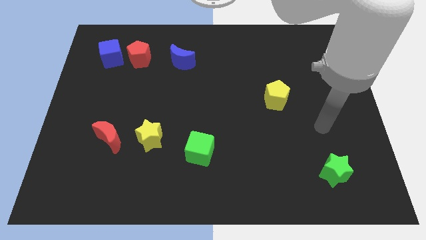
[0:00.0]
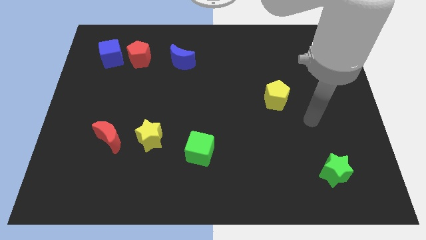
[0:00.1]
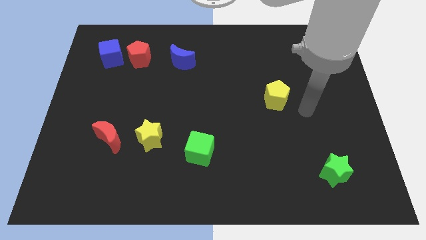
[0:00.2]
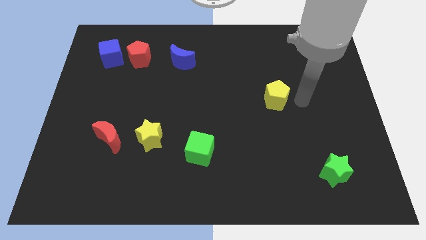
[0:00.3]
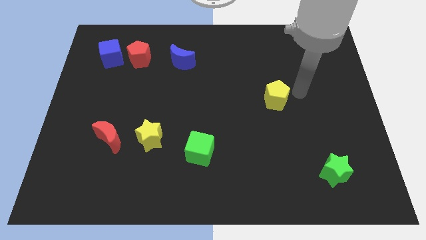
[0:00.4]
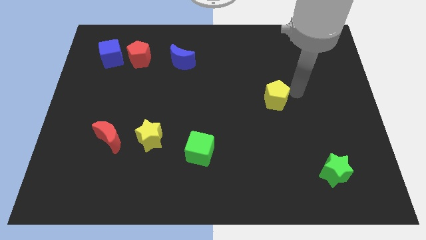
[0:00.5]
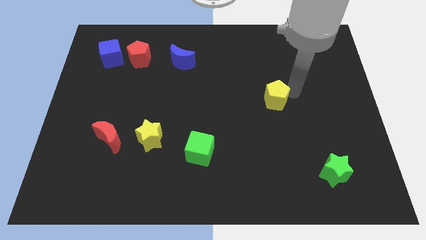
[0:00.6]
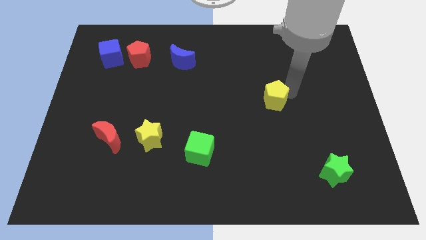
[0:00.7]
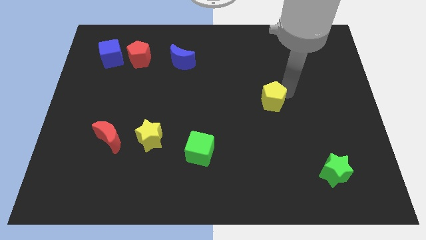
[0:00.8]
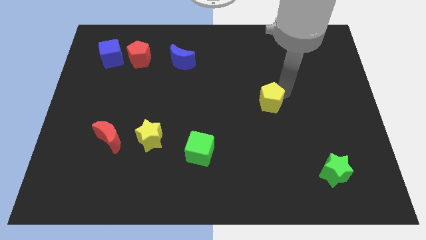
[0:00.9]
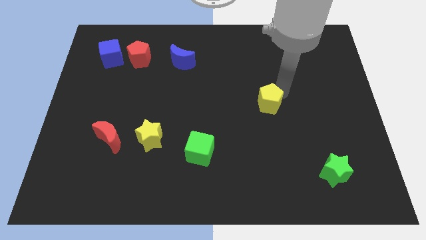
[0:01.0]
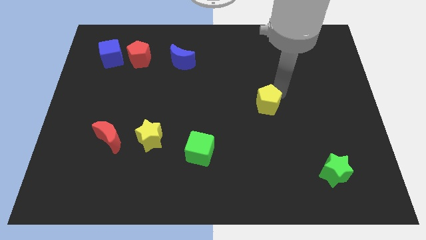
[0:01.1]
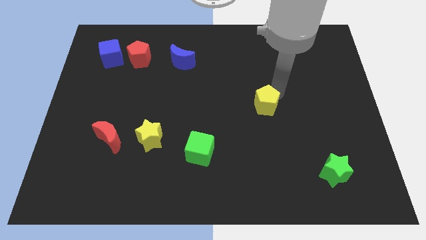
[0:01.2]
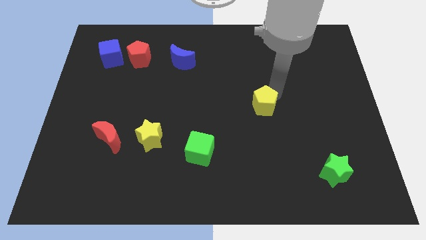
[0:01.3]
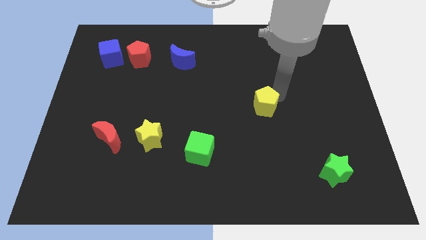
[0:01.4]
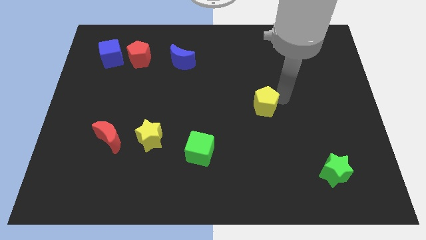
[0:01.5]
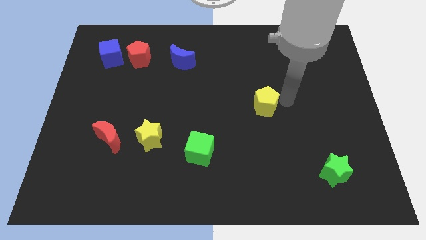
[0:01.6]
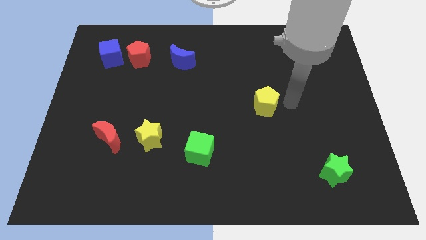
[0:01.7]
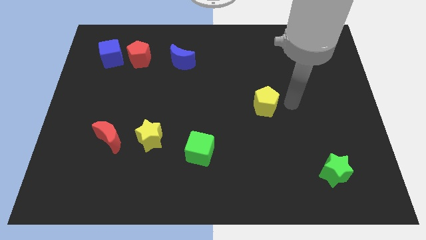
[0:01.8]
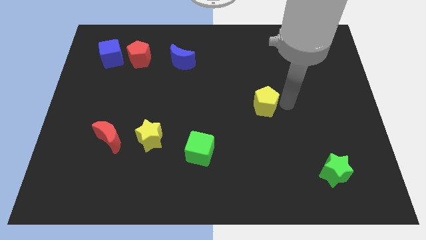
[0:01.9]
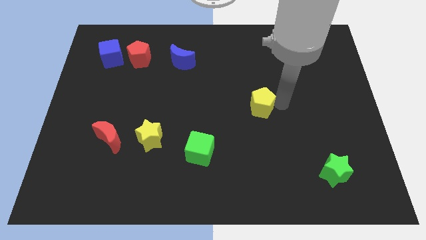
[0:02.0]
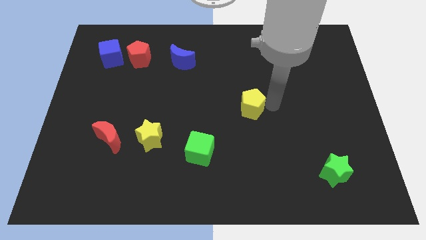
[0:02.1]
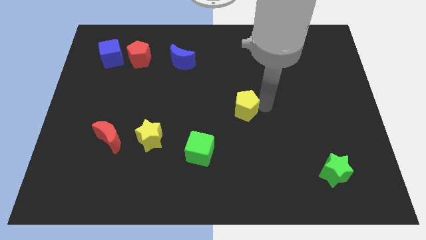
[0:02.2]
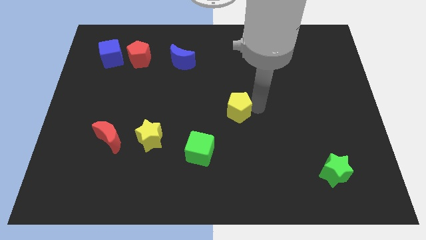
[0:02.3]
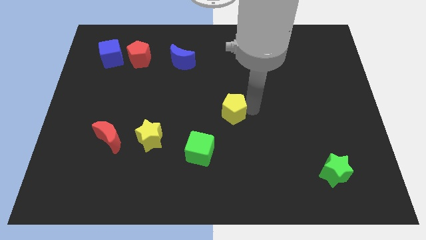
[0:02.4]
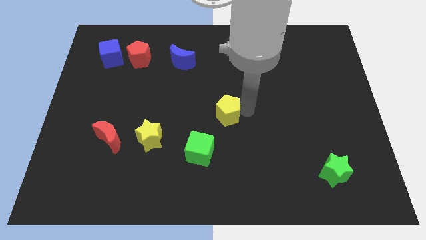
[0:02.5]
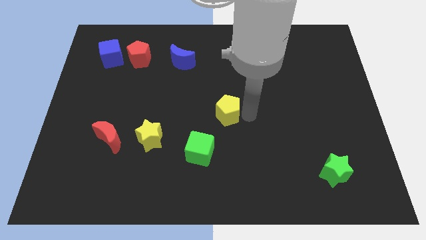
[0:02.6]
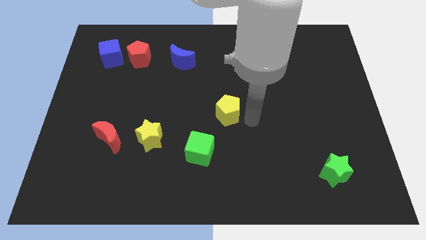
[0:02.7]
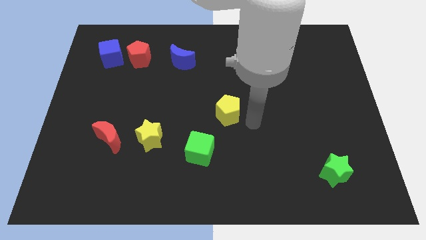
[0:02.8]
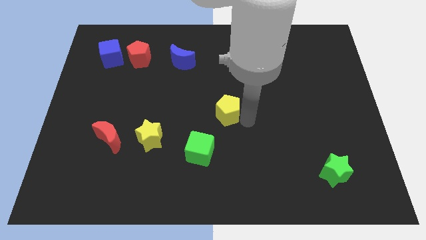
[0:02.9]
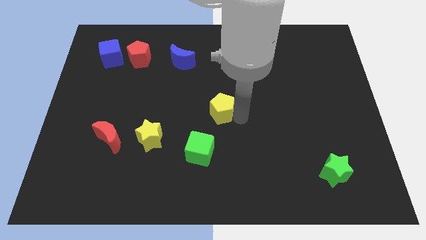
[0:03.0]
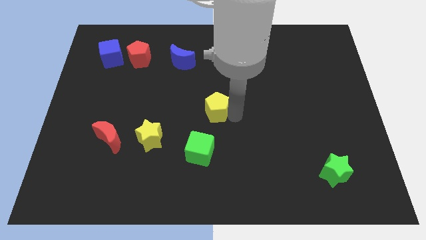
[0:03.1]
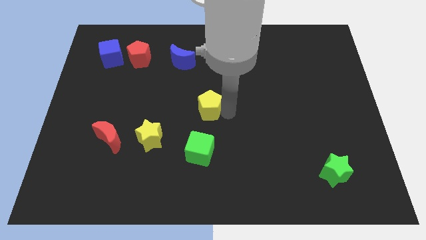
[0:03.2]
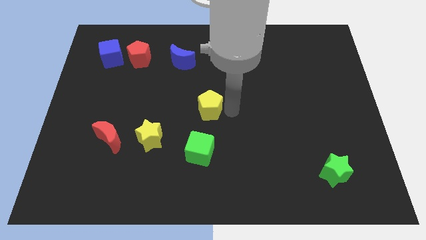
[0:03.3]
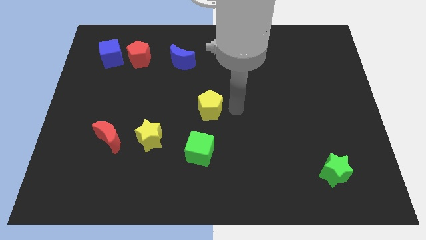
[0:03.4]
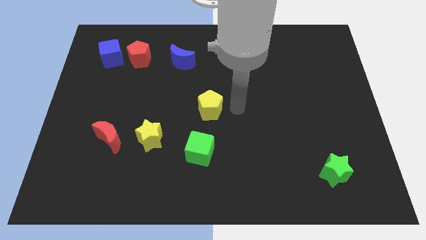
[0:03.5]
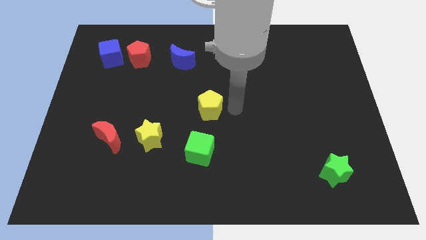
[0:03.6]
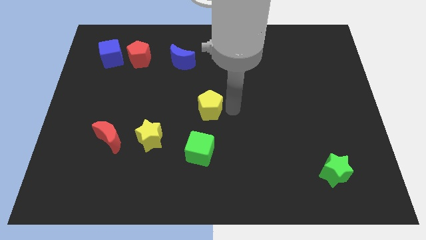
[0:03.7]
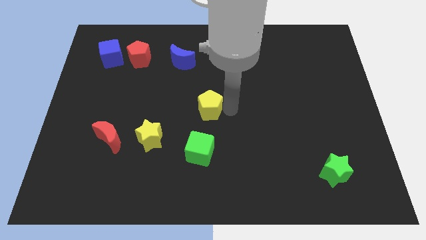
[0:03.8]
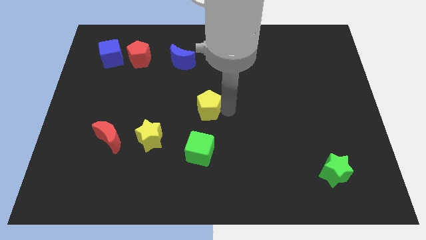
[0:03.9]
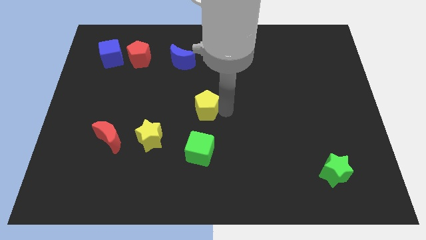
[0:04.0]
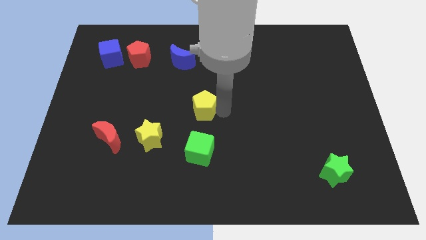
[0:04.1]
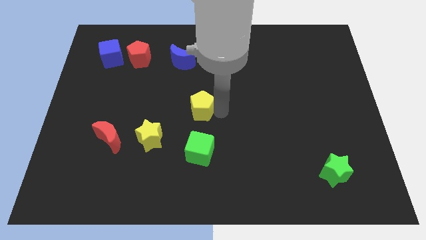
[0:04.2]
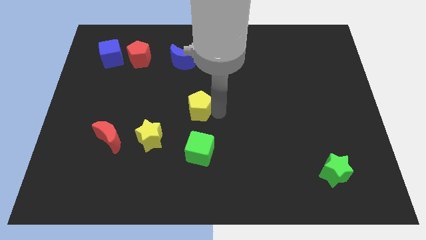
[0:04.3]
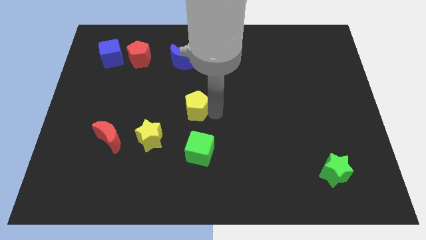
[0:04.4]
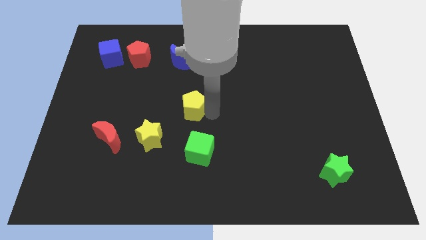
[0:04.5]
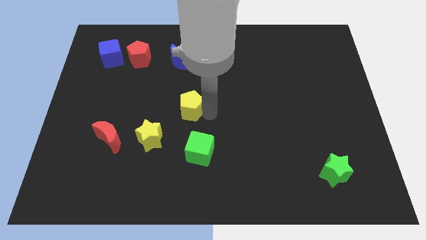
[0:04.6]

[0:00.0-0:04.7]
push the yellow pentagon left

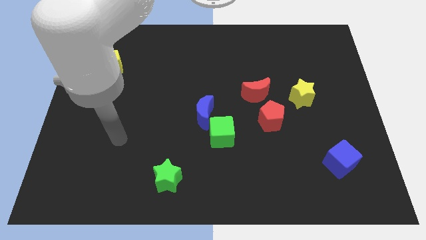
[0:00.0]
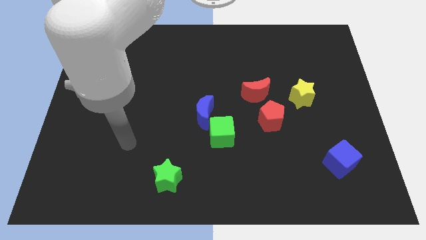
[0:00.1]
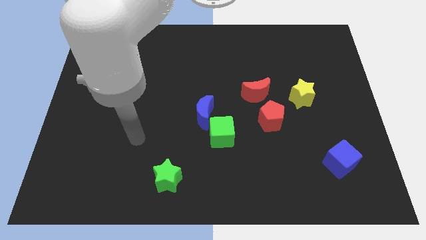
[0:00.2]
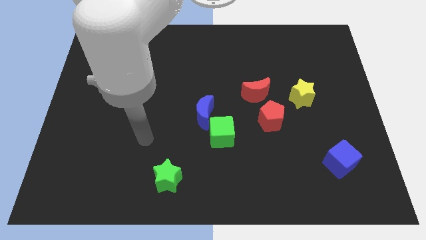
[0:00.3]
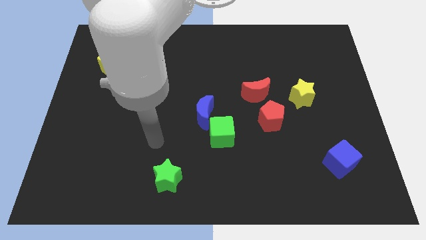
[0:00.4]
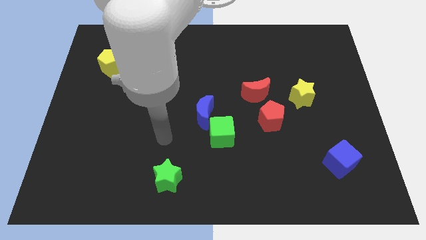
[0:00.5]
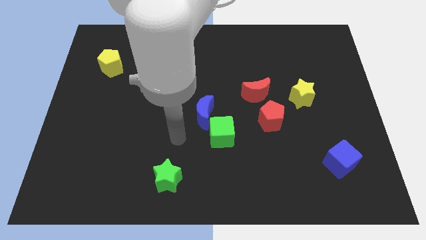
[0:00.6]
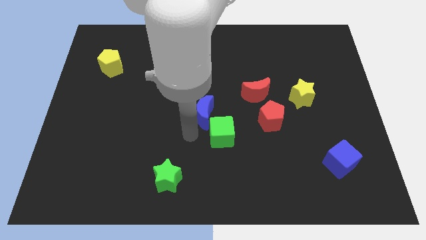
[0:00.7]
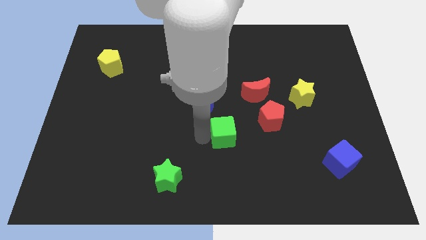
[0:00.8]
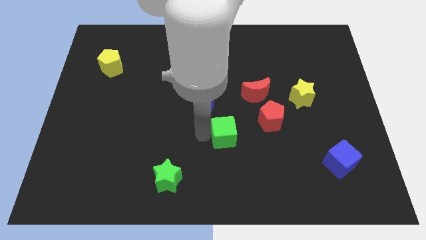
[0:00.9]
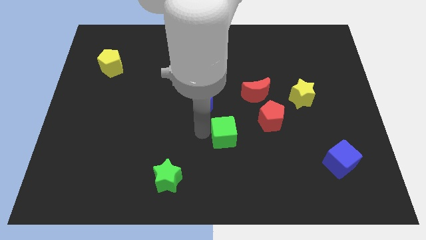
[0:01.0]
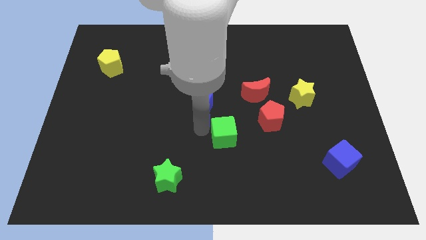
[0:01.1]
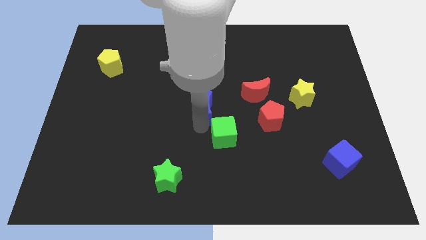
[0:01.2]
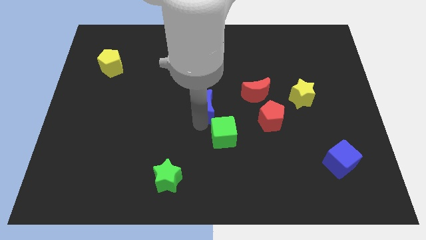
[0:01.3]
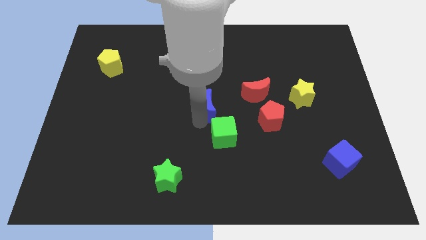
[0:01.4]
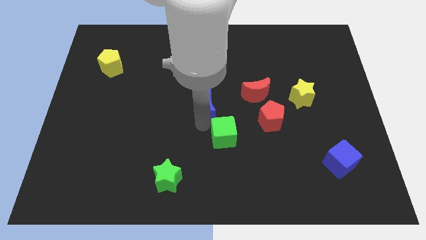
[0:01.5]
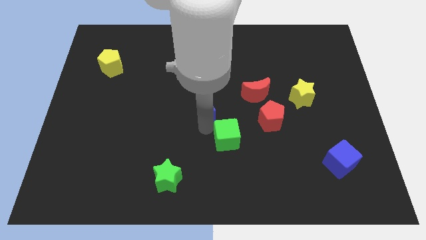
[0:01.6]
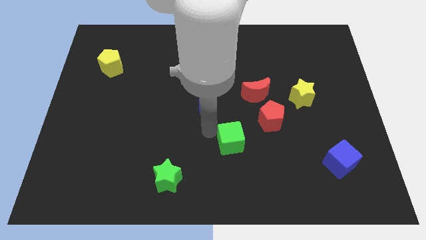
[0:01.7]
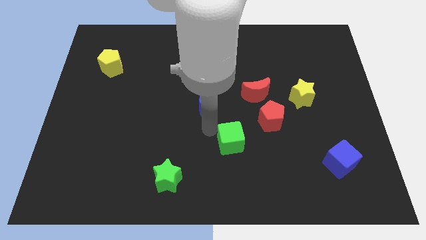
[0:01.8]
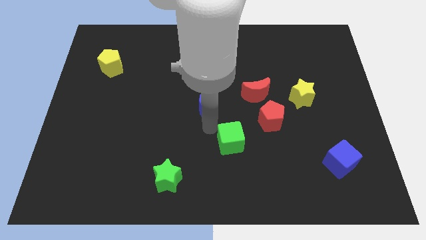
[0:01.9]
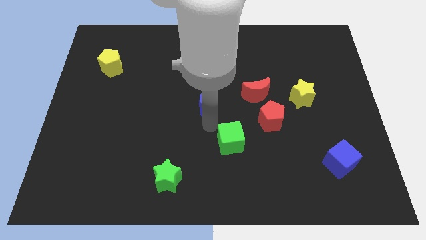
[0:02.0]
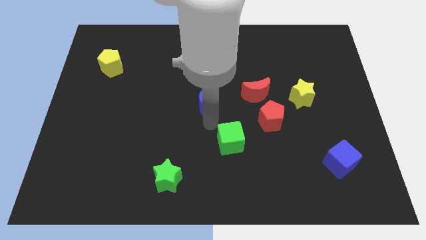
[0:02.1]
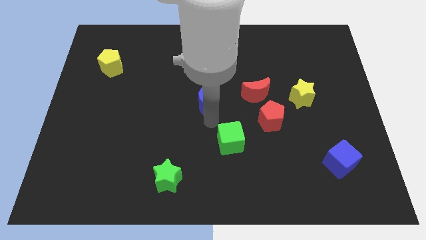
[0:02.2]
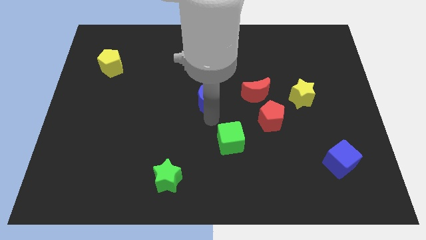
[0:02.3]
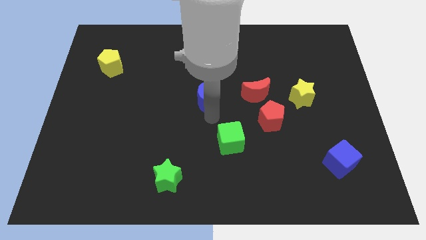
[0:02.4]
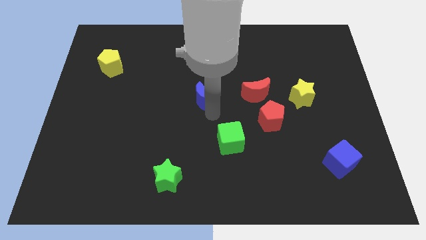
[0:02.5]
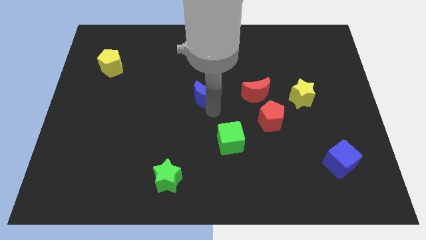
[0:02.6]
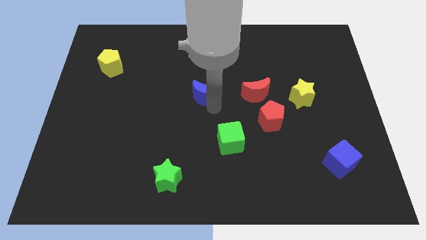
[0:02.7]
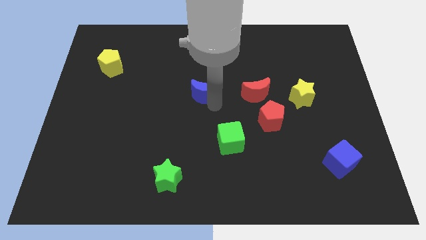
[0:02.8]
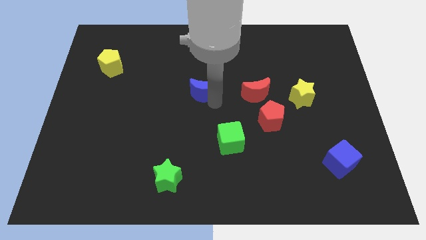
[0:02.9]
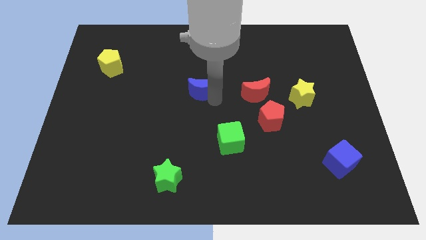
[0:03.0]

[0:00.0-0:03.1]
slide the blue moon upwards a little

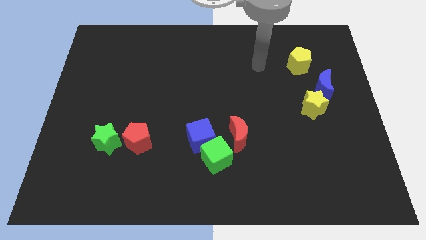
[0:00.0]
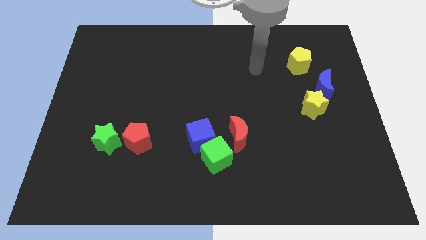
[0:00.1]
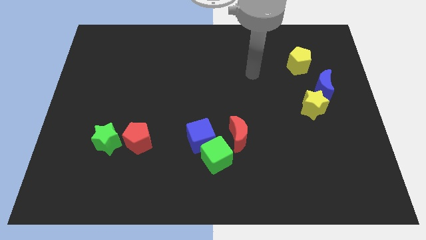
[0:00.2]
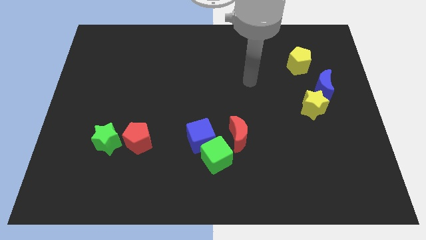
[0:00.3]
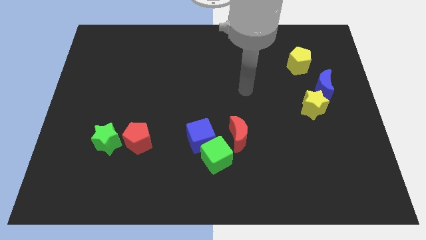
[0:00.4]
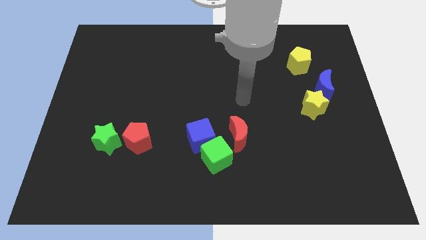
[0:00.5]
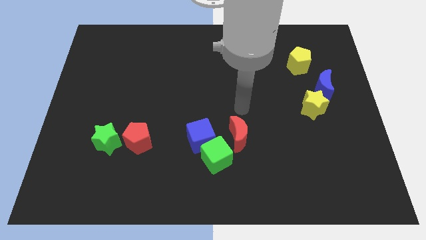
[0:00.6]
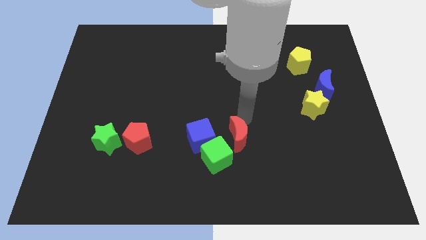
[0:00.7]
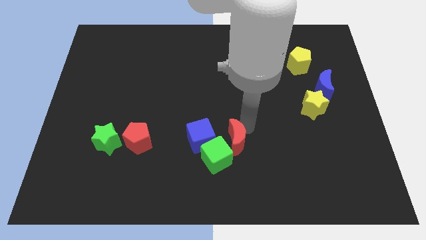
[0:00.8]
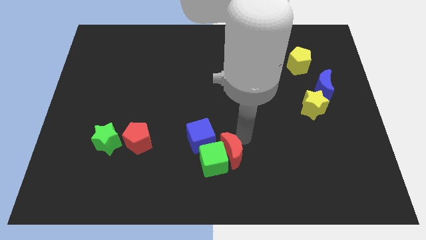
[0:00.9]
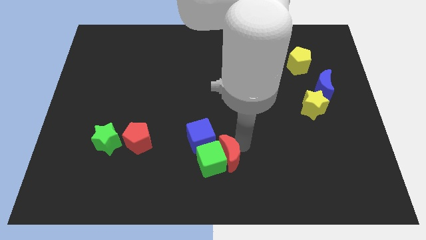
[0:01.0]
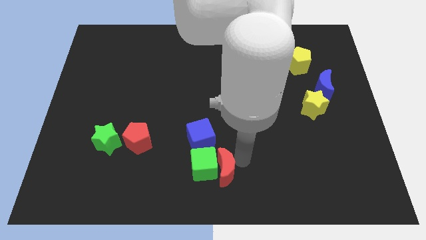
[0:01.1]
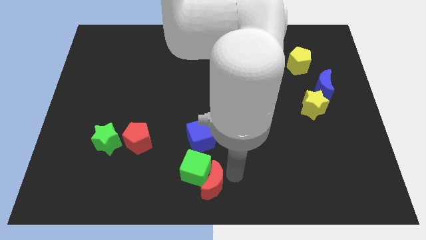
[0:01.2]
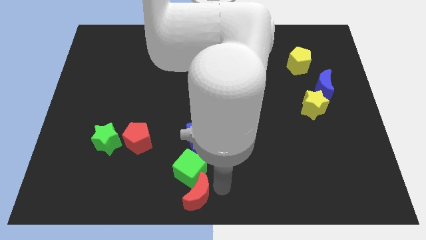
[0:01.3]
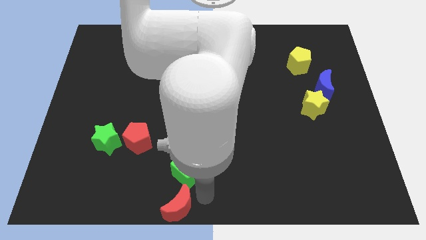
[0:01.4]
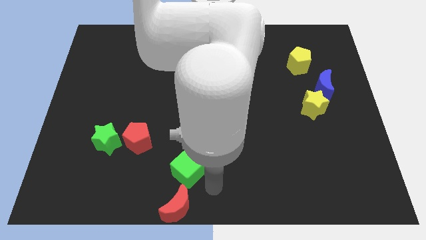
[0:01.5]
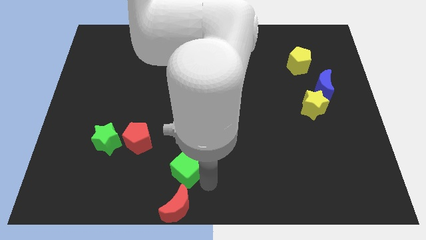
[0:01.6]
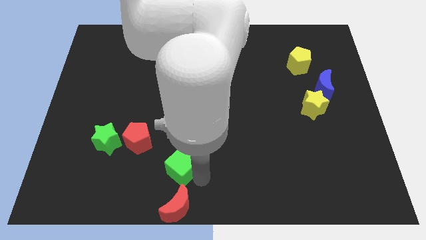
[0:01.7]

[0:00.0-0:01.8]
slightly push the green cube left
